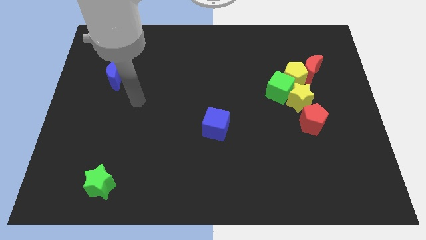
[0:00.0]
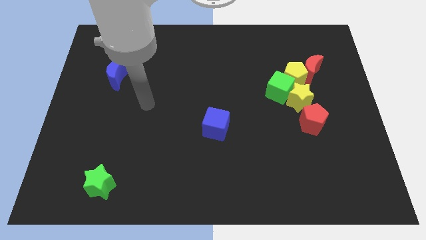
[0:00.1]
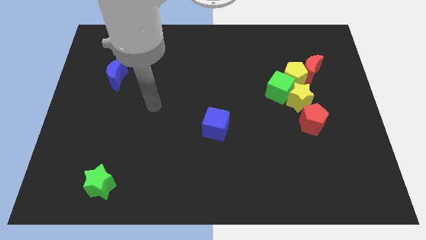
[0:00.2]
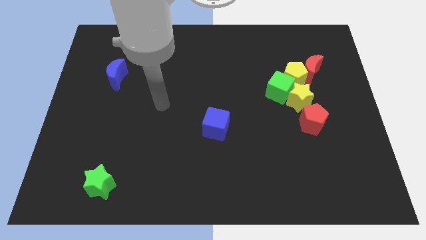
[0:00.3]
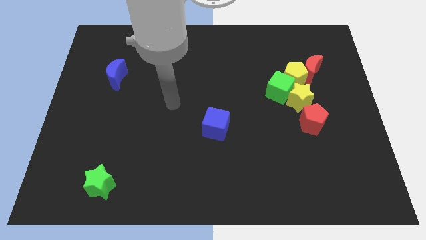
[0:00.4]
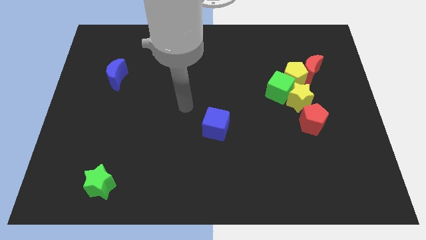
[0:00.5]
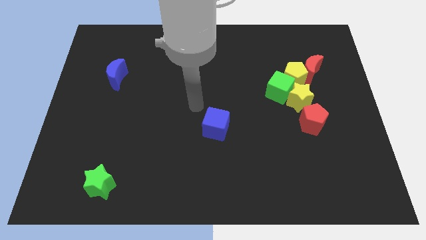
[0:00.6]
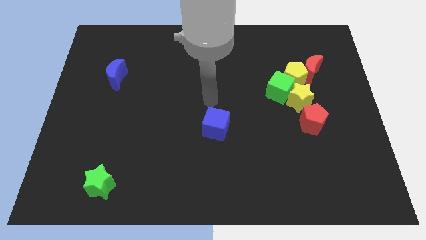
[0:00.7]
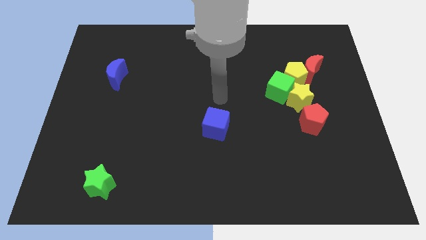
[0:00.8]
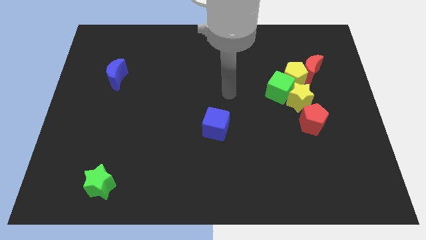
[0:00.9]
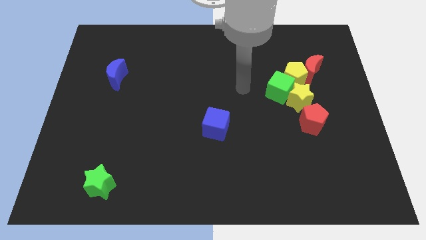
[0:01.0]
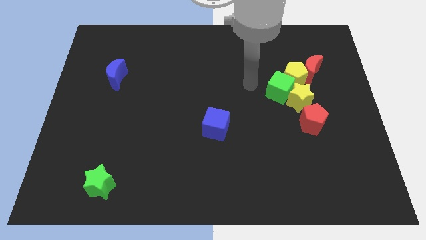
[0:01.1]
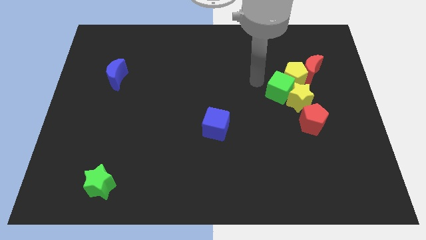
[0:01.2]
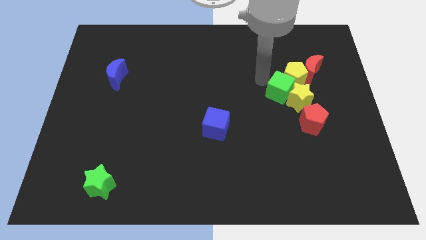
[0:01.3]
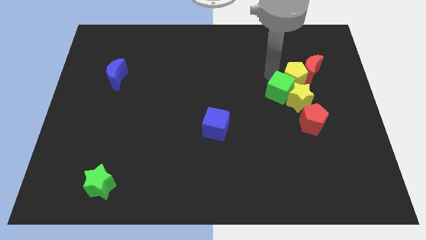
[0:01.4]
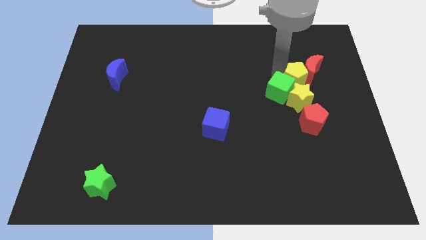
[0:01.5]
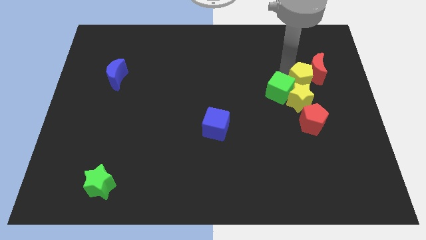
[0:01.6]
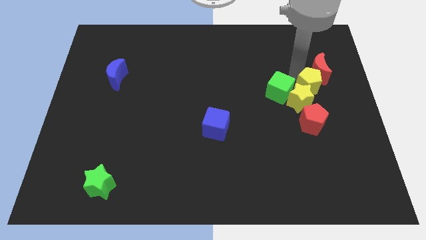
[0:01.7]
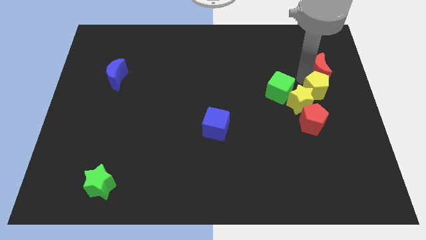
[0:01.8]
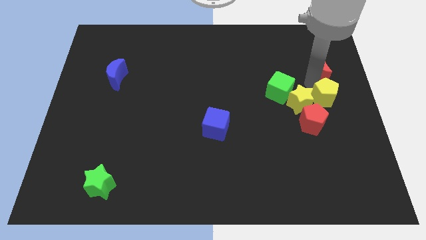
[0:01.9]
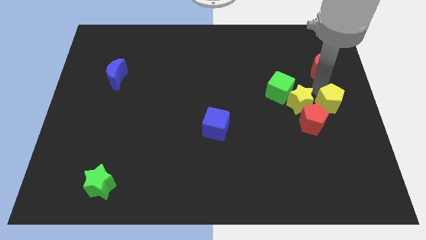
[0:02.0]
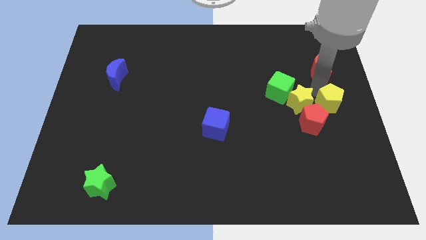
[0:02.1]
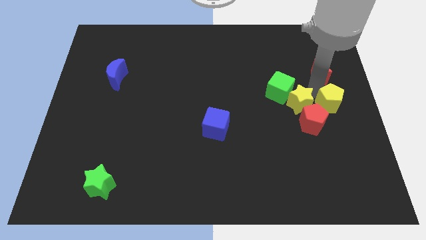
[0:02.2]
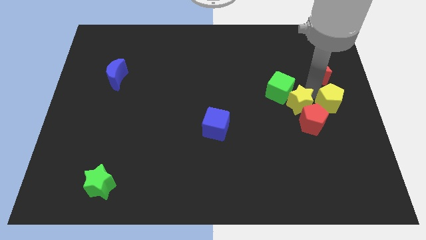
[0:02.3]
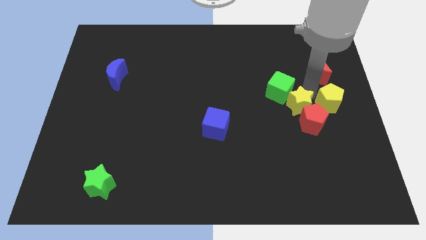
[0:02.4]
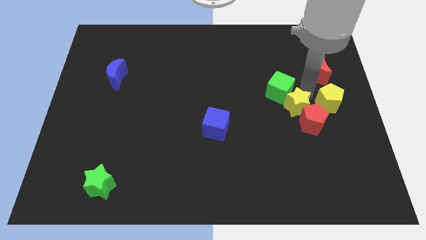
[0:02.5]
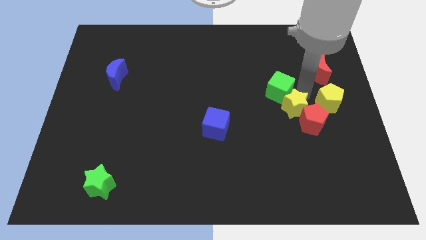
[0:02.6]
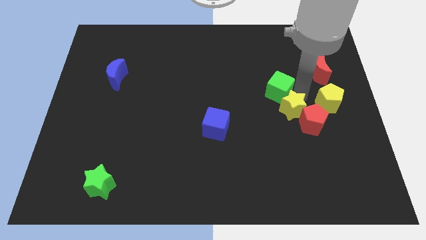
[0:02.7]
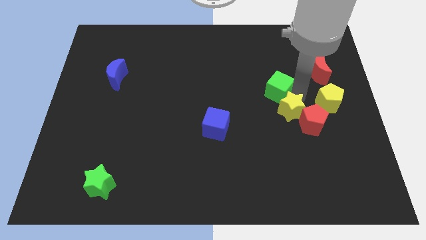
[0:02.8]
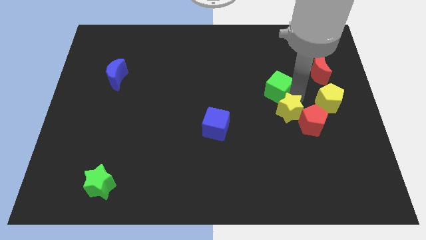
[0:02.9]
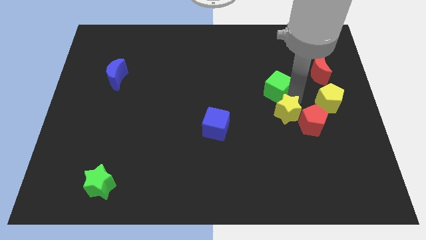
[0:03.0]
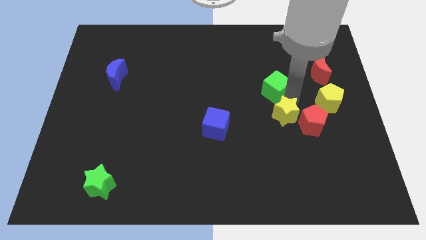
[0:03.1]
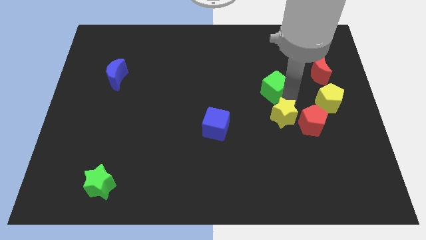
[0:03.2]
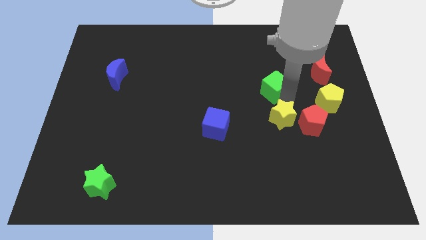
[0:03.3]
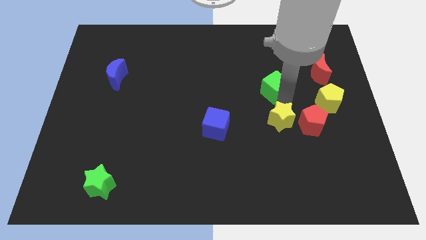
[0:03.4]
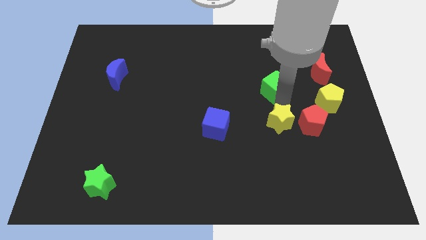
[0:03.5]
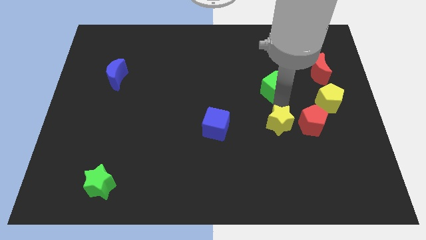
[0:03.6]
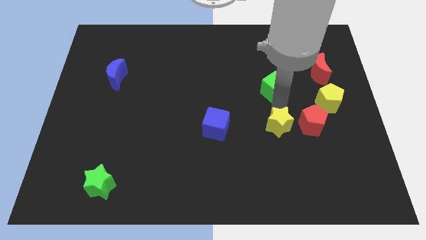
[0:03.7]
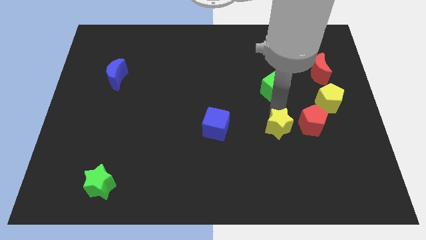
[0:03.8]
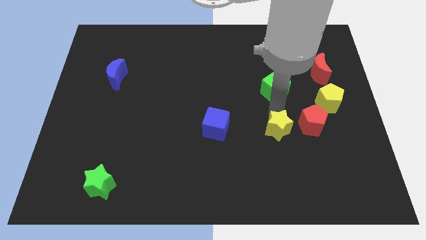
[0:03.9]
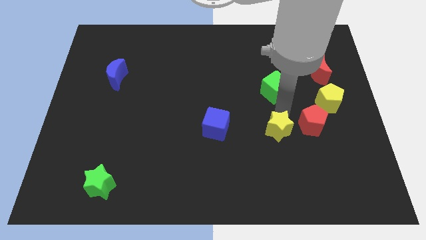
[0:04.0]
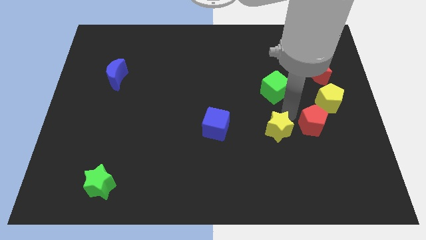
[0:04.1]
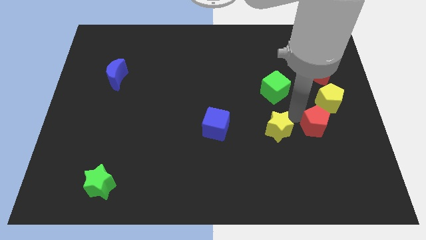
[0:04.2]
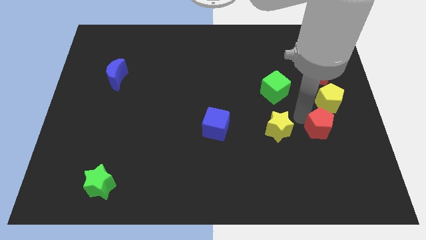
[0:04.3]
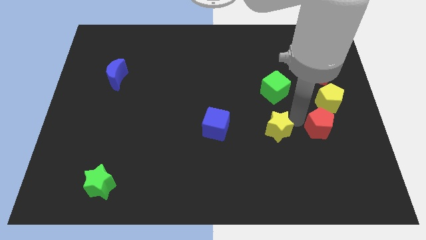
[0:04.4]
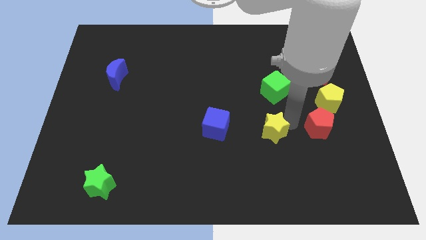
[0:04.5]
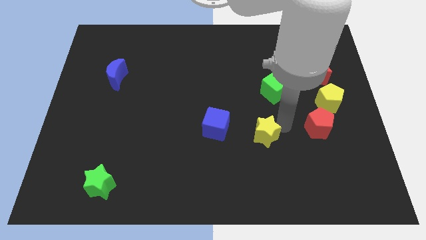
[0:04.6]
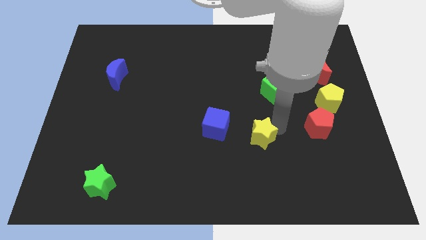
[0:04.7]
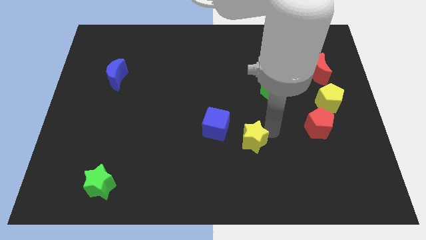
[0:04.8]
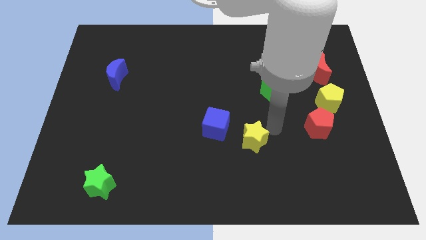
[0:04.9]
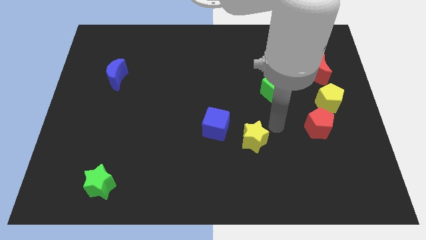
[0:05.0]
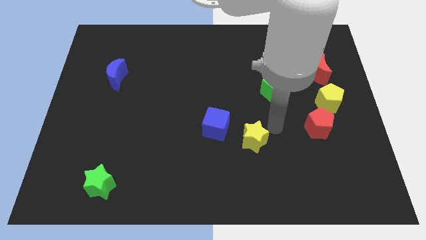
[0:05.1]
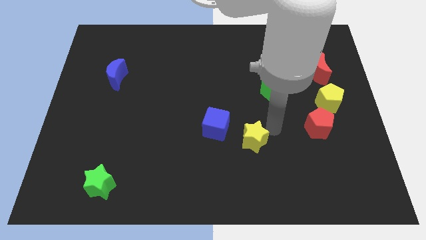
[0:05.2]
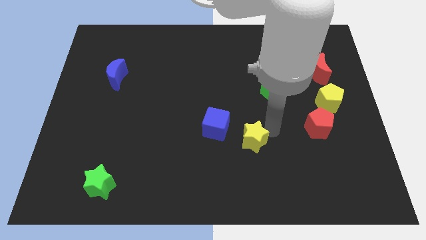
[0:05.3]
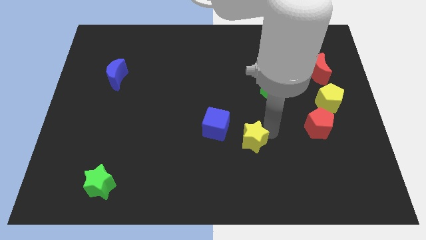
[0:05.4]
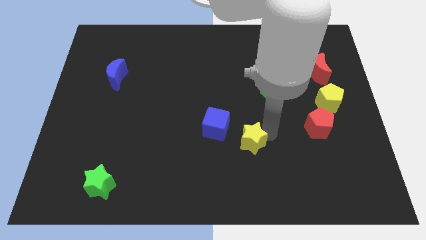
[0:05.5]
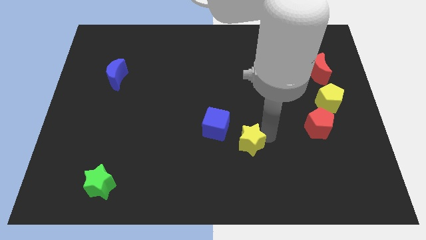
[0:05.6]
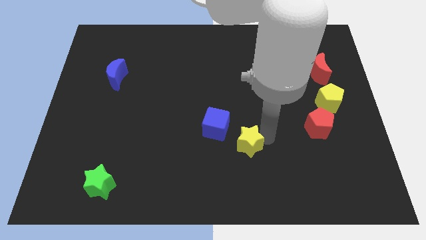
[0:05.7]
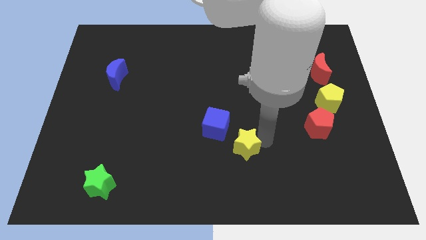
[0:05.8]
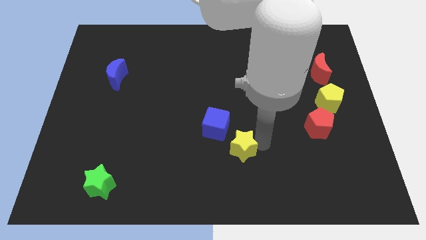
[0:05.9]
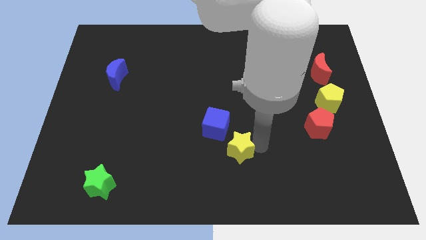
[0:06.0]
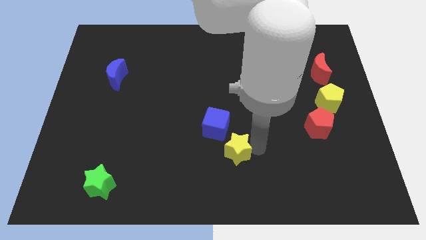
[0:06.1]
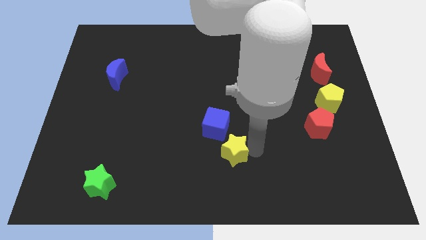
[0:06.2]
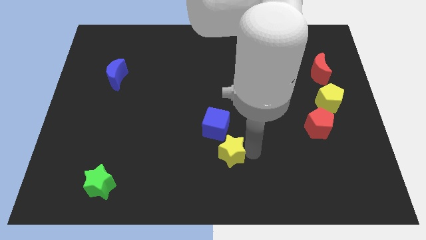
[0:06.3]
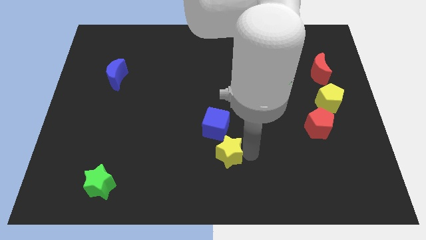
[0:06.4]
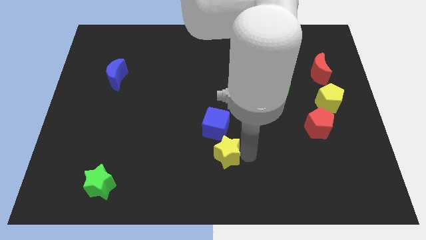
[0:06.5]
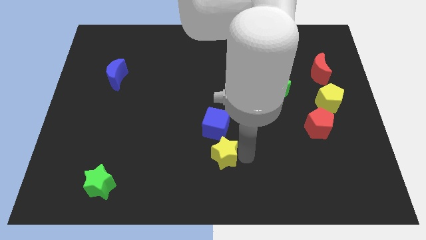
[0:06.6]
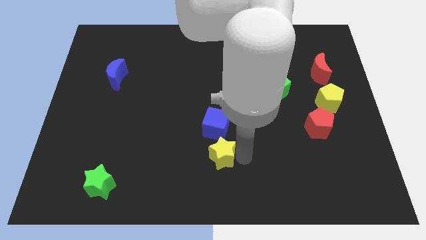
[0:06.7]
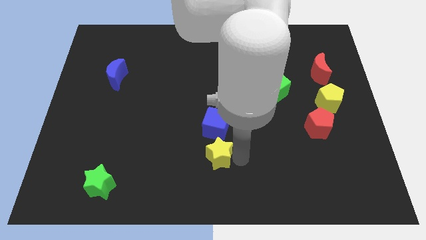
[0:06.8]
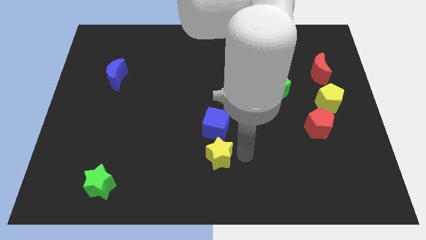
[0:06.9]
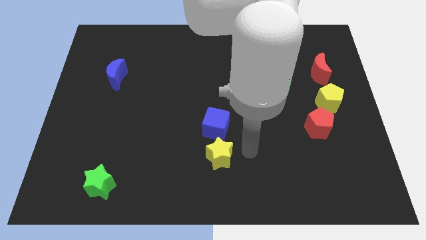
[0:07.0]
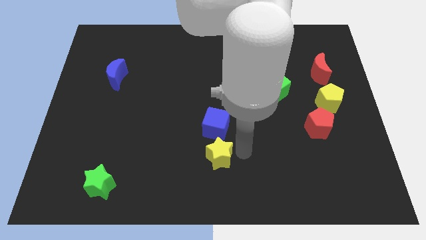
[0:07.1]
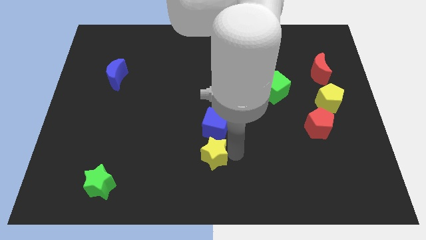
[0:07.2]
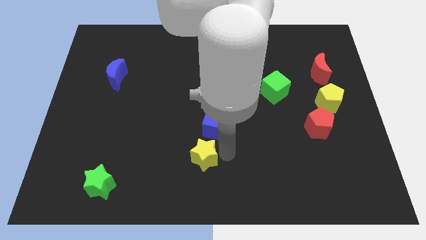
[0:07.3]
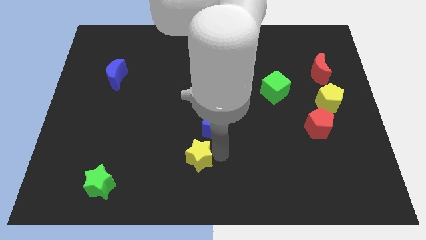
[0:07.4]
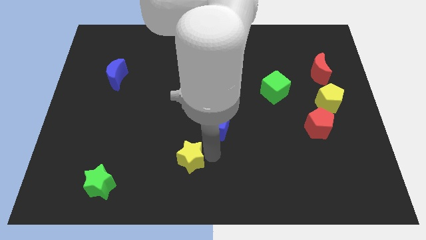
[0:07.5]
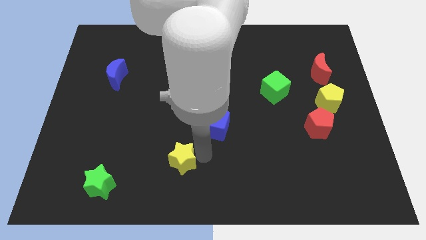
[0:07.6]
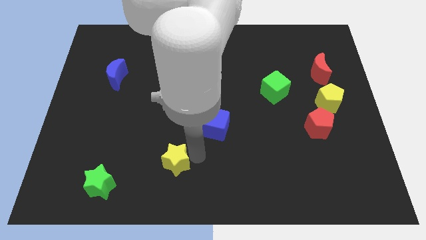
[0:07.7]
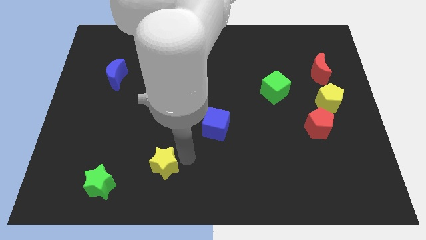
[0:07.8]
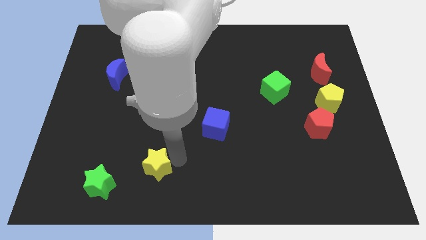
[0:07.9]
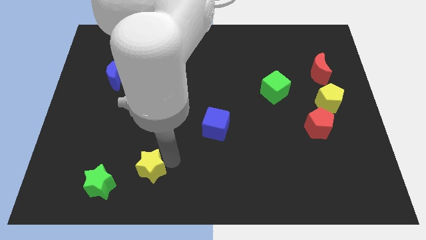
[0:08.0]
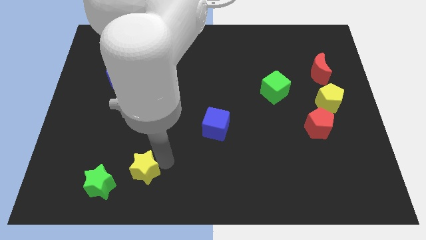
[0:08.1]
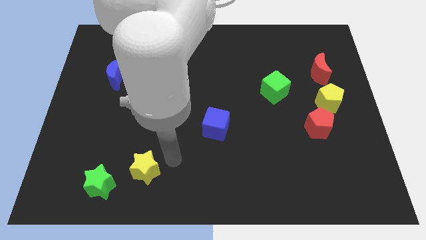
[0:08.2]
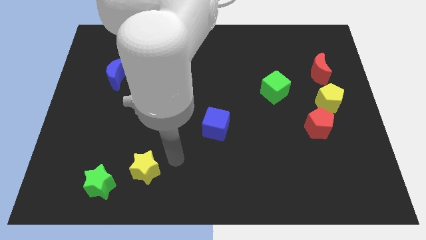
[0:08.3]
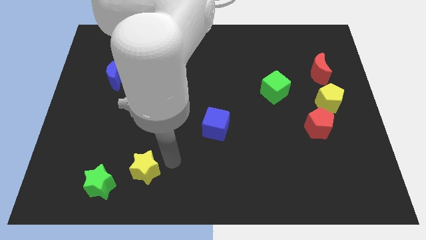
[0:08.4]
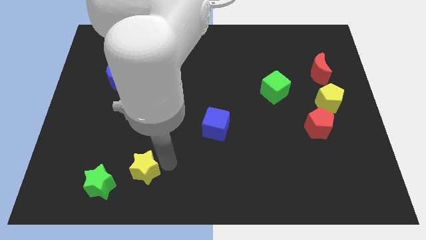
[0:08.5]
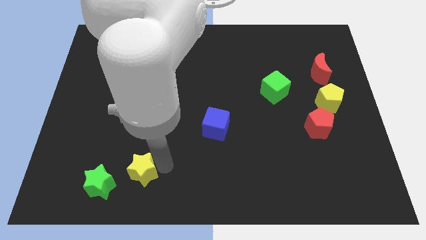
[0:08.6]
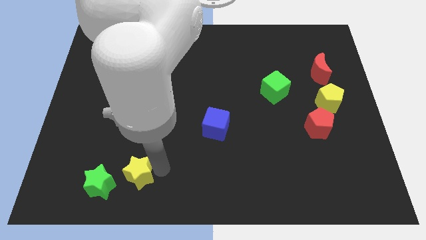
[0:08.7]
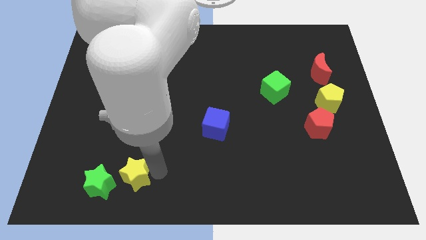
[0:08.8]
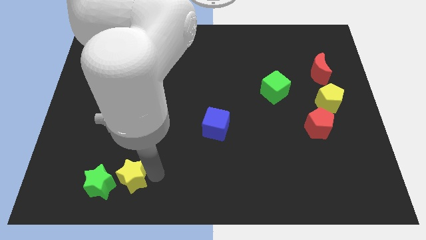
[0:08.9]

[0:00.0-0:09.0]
move the yellow star close to the green star
